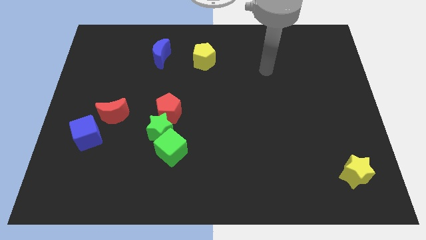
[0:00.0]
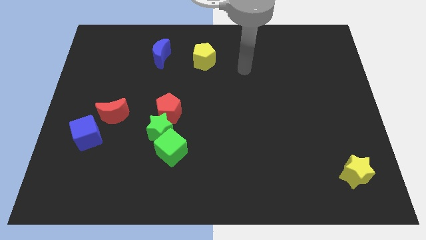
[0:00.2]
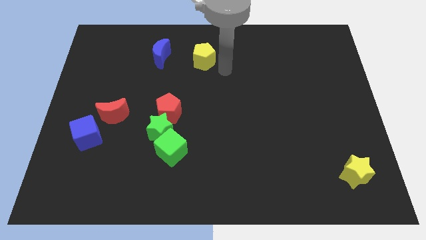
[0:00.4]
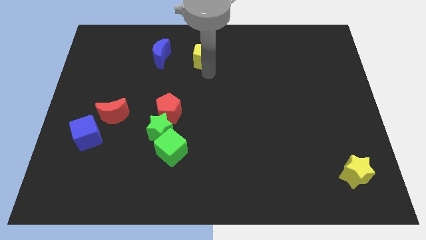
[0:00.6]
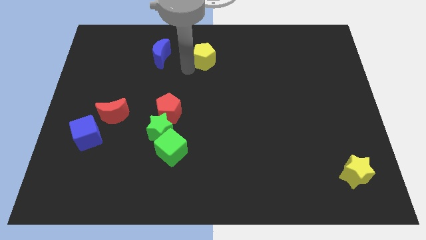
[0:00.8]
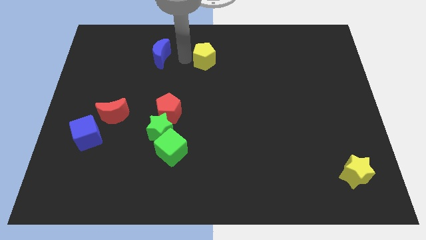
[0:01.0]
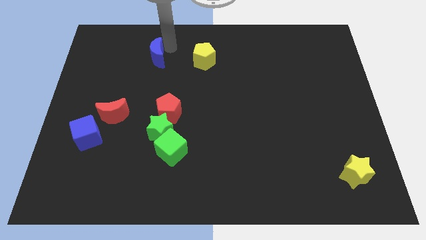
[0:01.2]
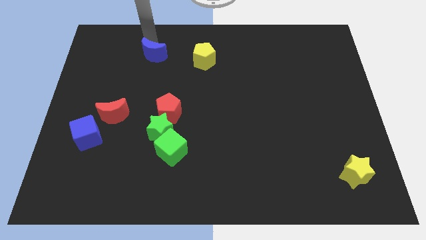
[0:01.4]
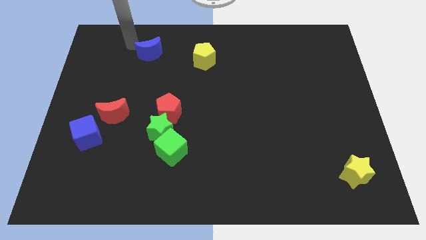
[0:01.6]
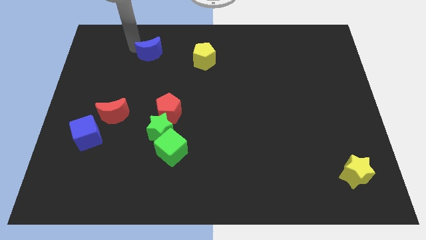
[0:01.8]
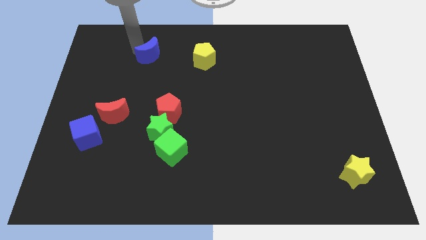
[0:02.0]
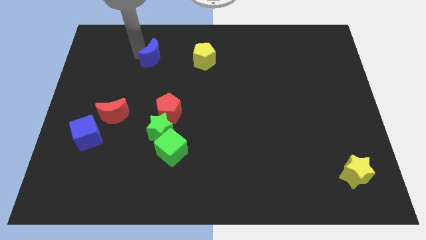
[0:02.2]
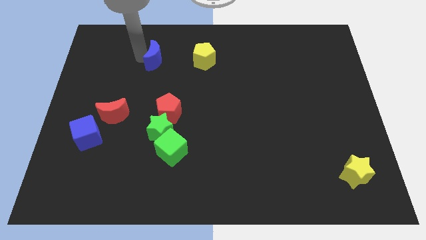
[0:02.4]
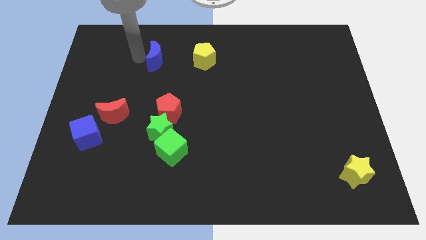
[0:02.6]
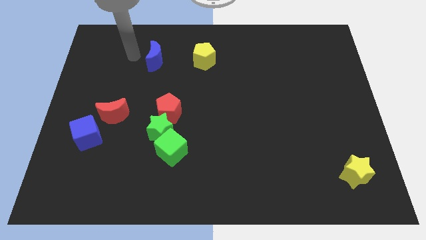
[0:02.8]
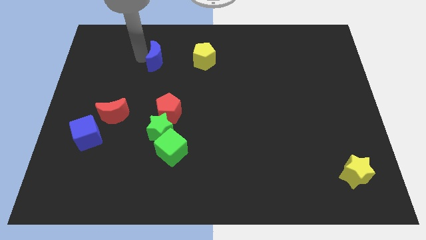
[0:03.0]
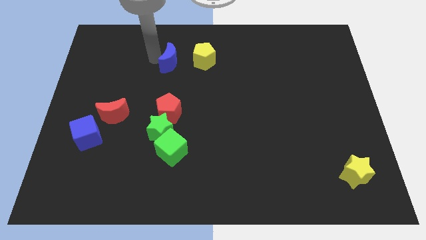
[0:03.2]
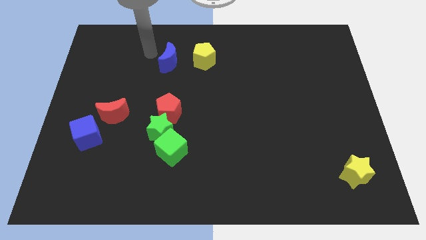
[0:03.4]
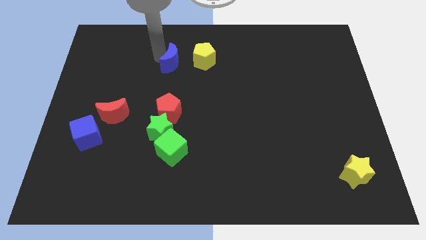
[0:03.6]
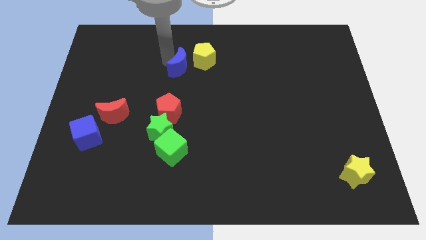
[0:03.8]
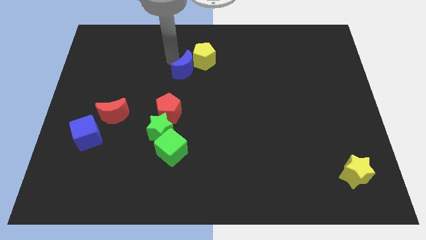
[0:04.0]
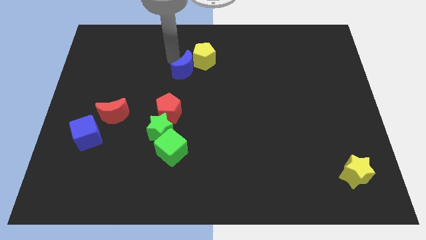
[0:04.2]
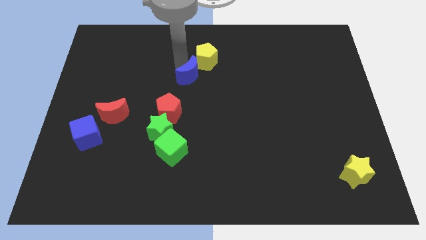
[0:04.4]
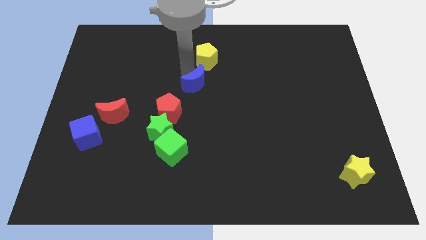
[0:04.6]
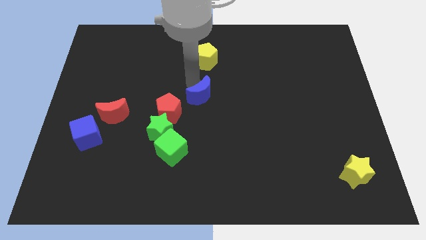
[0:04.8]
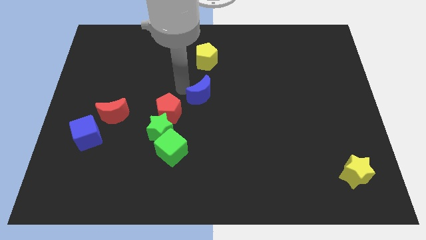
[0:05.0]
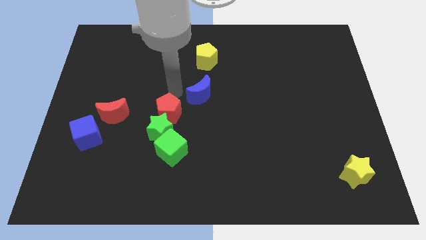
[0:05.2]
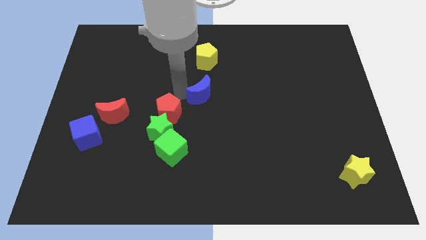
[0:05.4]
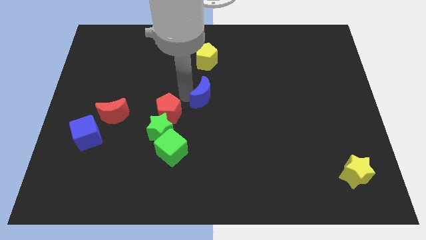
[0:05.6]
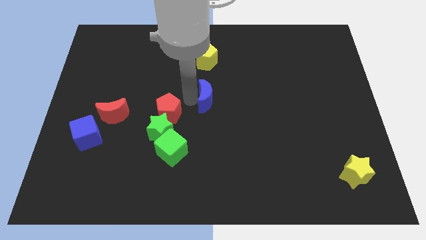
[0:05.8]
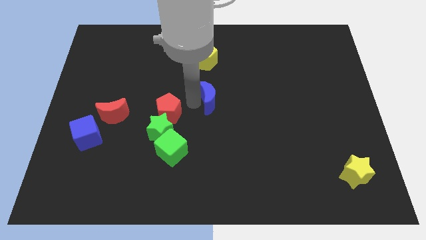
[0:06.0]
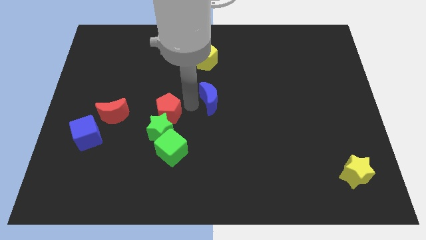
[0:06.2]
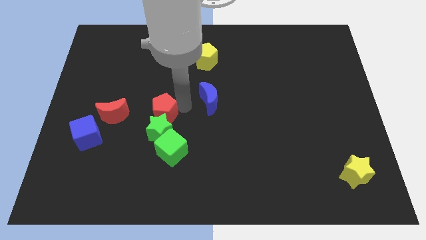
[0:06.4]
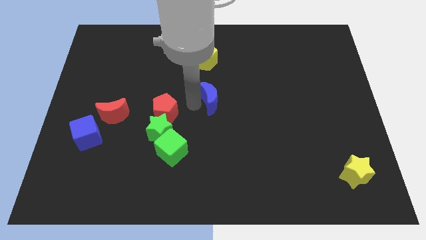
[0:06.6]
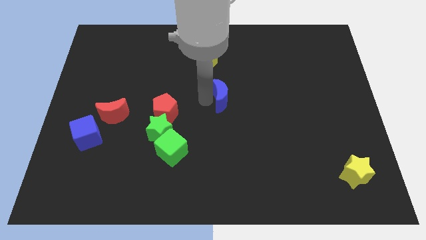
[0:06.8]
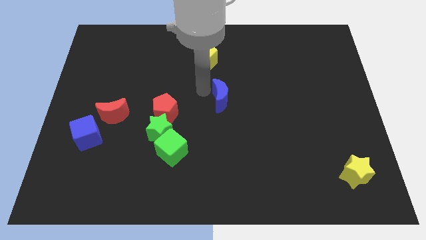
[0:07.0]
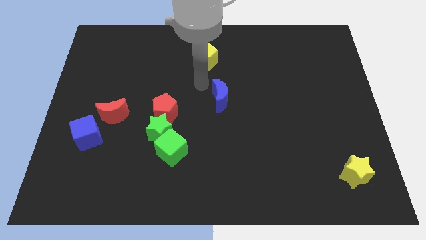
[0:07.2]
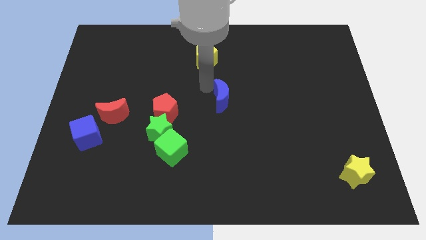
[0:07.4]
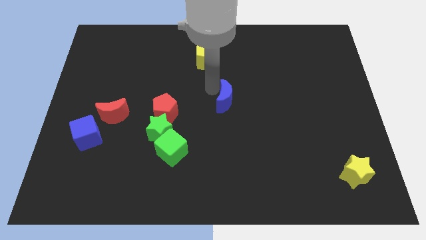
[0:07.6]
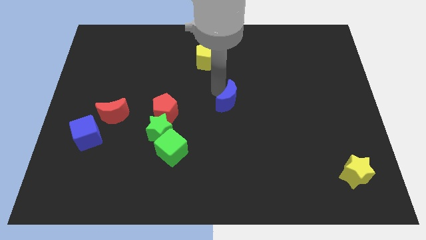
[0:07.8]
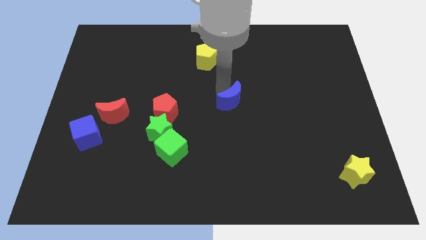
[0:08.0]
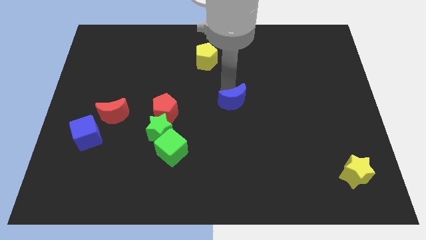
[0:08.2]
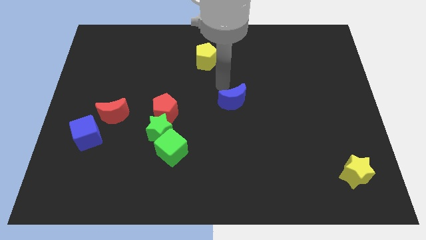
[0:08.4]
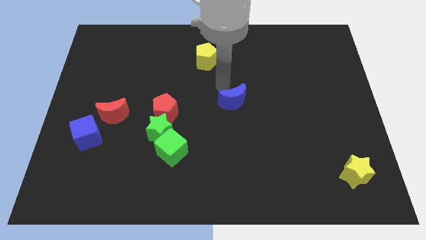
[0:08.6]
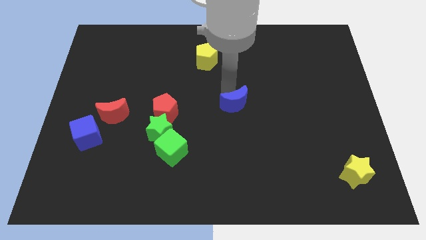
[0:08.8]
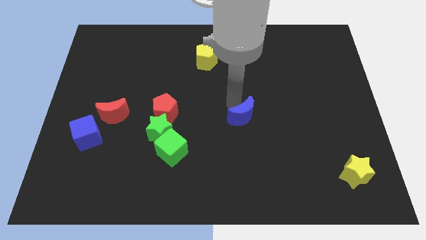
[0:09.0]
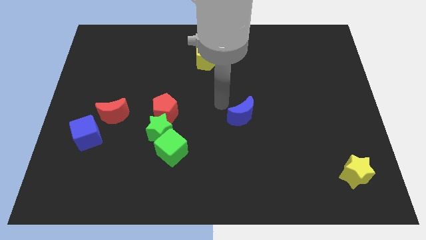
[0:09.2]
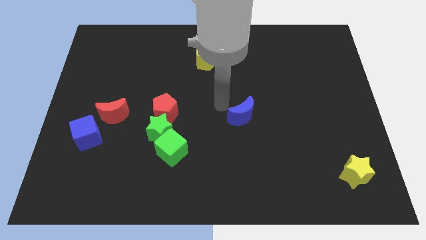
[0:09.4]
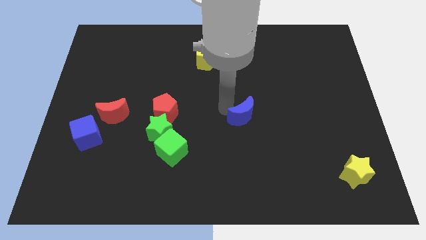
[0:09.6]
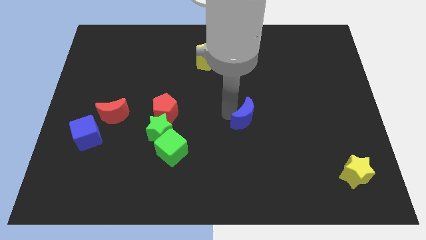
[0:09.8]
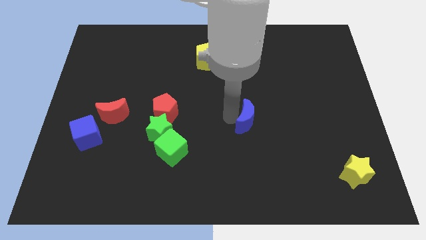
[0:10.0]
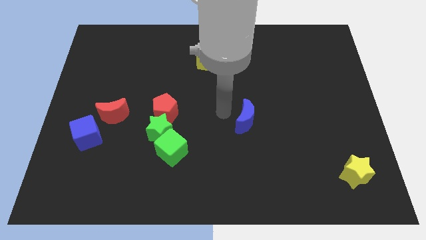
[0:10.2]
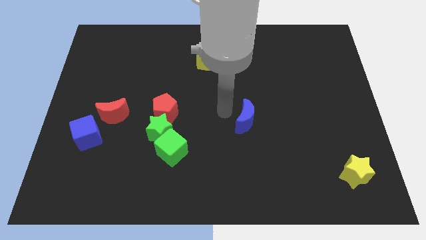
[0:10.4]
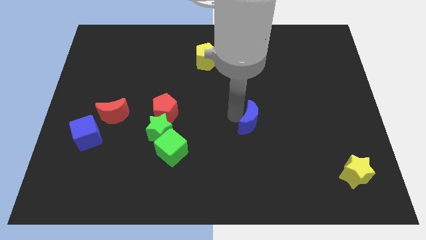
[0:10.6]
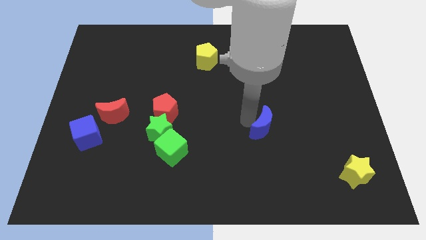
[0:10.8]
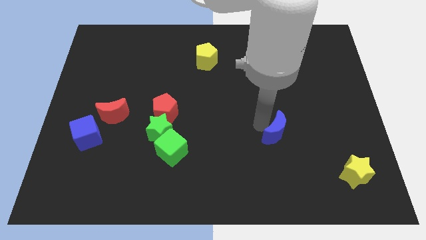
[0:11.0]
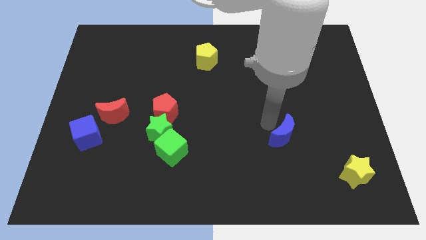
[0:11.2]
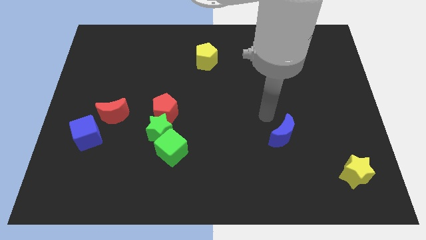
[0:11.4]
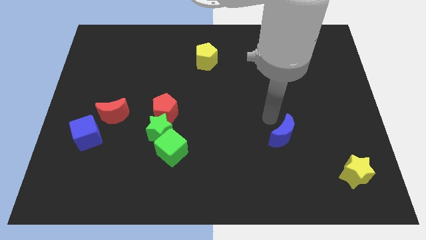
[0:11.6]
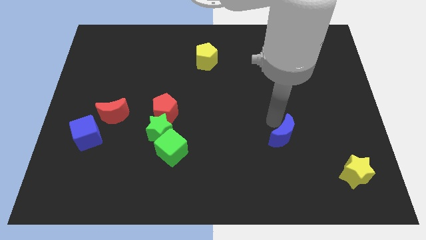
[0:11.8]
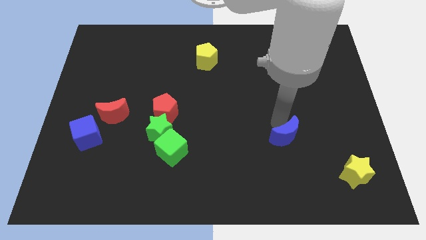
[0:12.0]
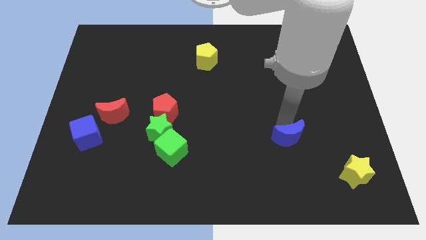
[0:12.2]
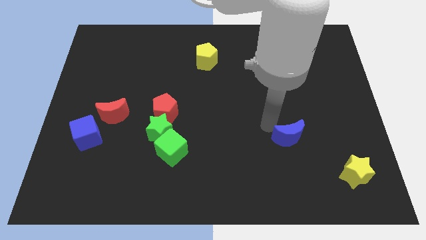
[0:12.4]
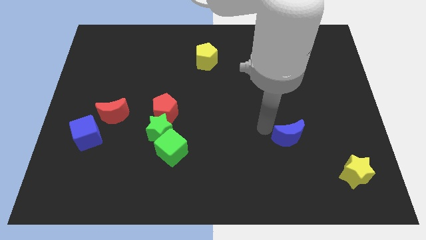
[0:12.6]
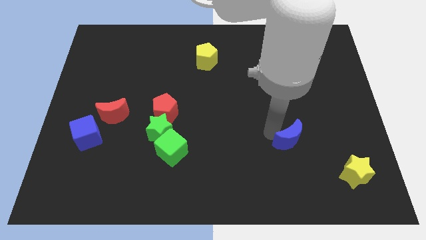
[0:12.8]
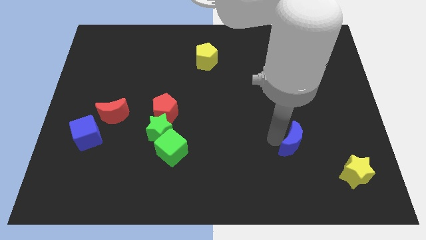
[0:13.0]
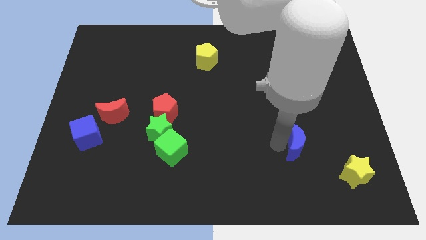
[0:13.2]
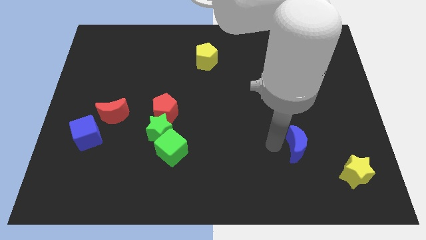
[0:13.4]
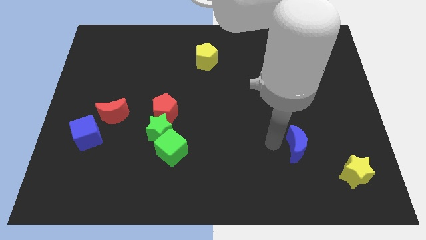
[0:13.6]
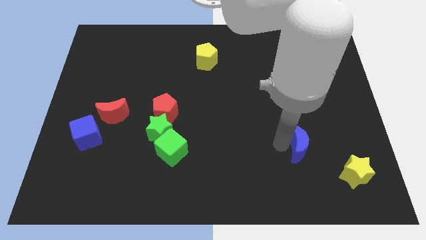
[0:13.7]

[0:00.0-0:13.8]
move the blue moon diagonally up and to the left of the yellow star
